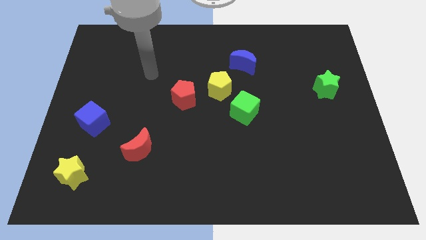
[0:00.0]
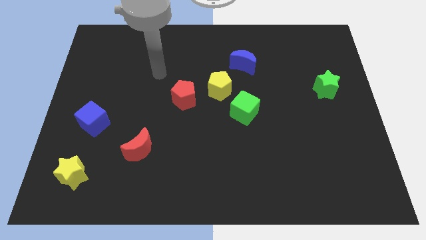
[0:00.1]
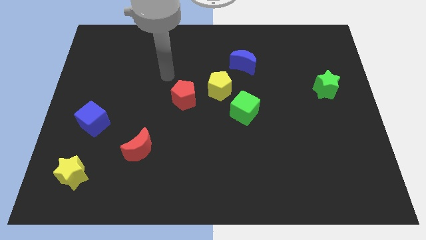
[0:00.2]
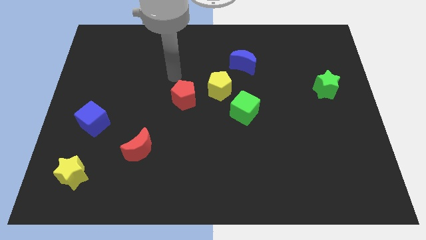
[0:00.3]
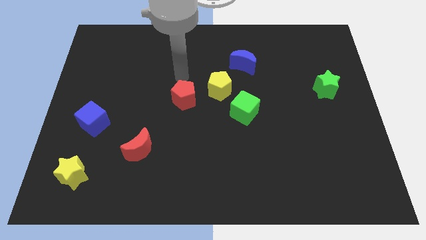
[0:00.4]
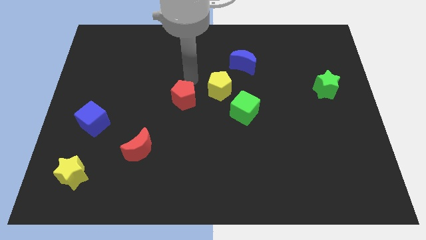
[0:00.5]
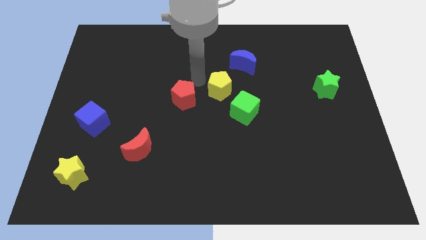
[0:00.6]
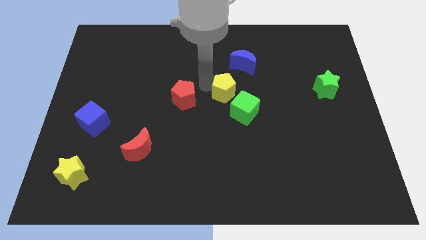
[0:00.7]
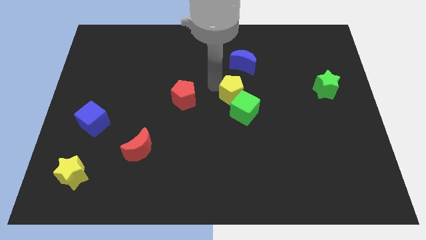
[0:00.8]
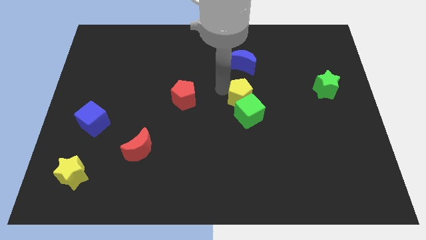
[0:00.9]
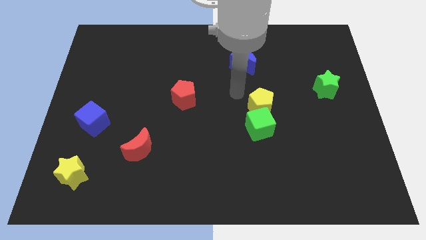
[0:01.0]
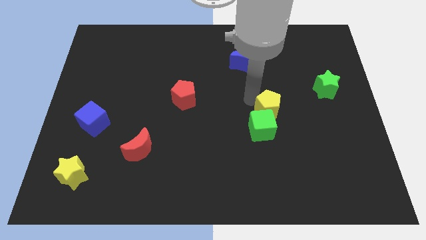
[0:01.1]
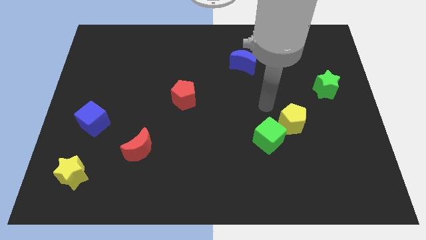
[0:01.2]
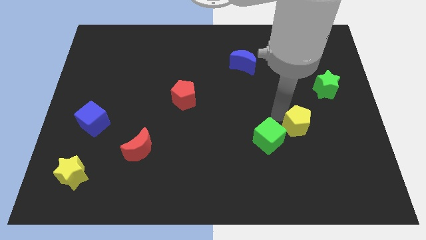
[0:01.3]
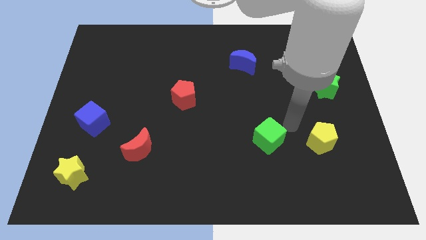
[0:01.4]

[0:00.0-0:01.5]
pull the green cube apart from the yellow pentagon

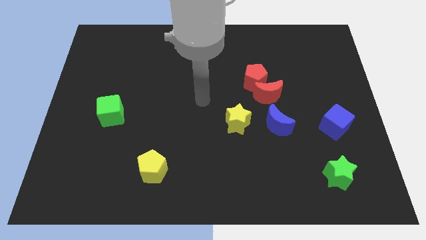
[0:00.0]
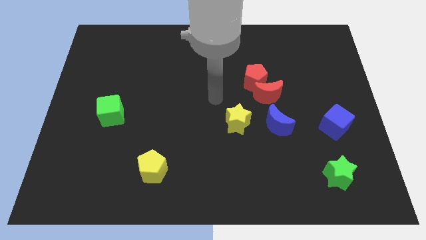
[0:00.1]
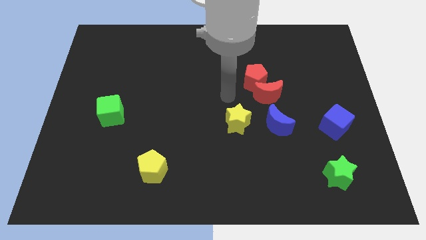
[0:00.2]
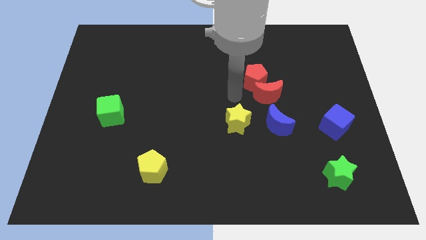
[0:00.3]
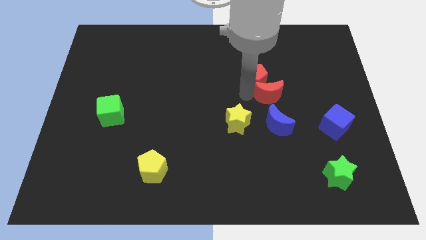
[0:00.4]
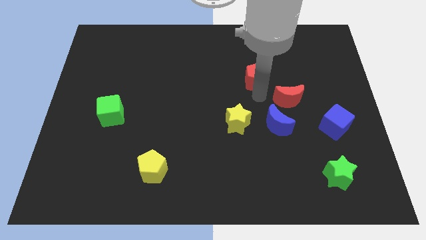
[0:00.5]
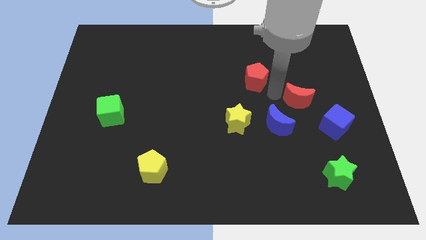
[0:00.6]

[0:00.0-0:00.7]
separate the red pentagon from the red moon

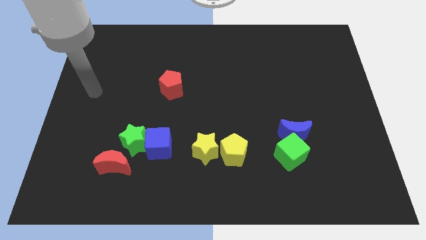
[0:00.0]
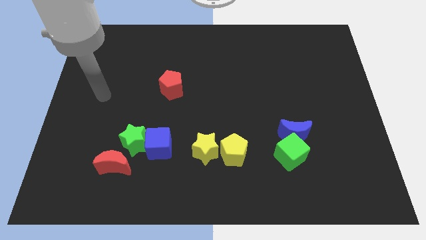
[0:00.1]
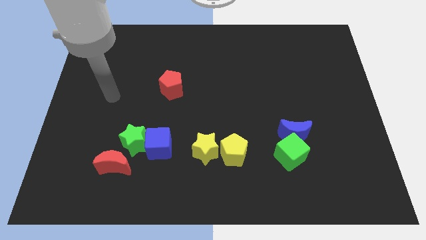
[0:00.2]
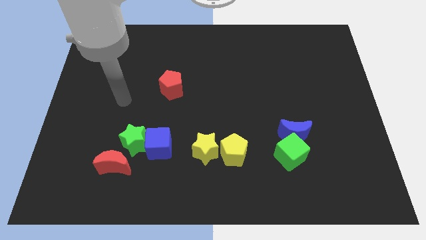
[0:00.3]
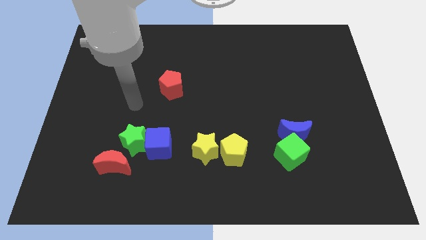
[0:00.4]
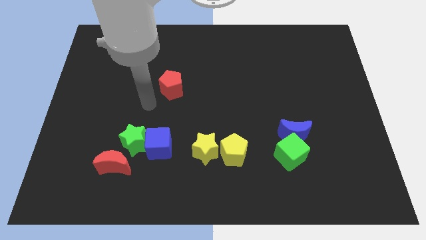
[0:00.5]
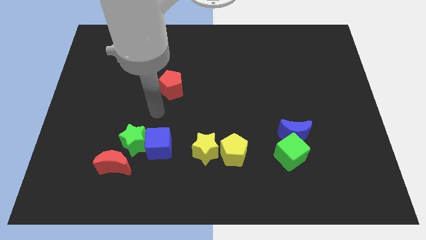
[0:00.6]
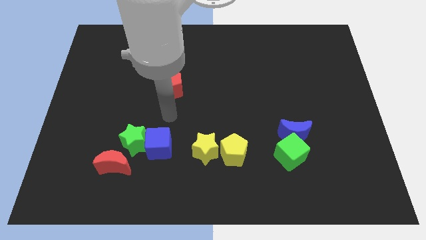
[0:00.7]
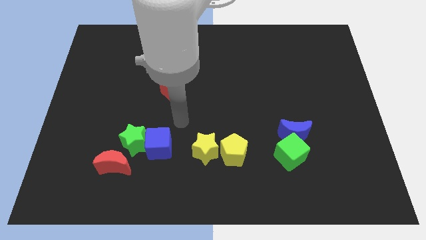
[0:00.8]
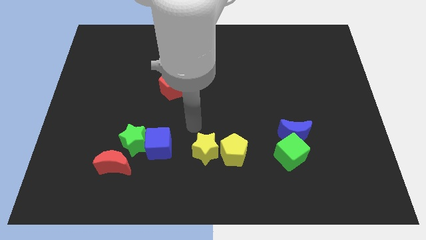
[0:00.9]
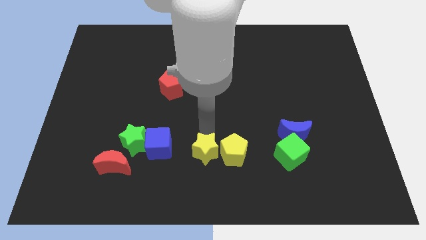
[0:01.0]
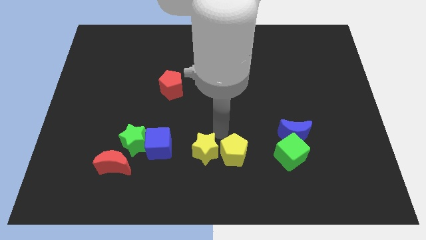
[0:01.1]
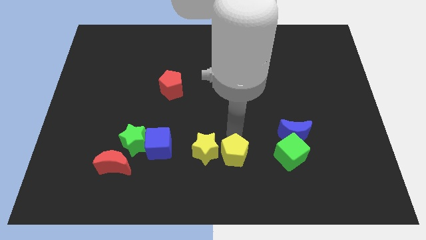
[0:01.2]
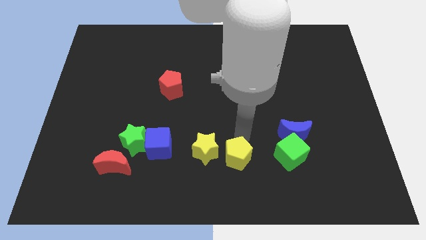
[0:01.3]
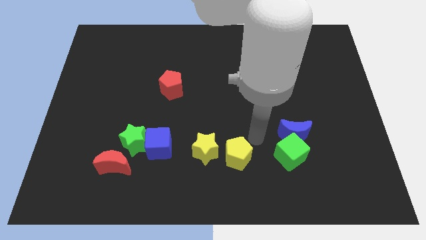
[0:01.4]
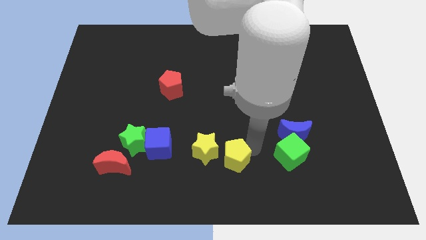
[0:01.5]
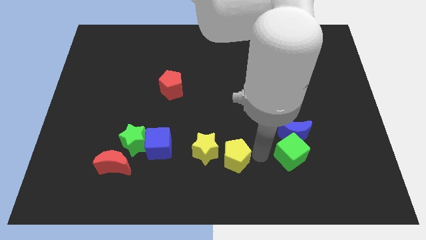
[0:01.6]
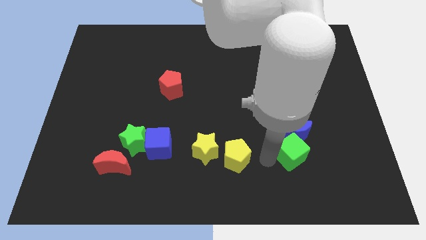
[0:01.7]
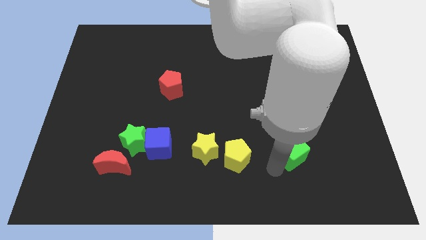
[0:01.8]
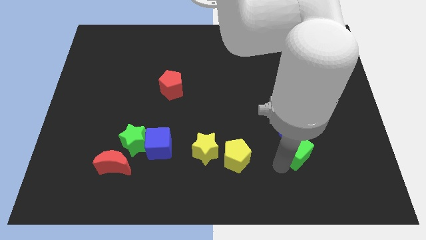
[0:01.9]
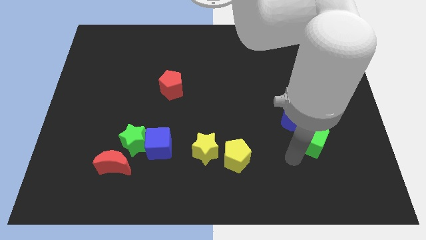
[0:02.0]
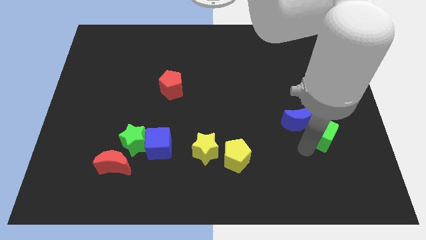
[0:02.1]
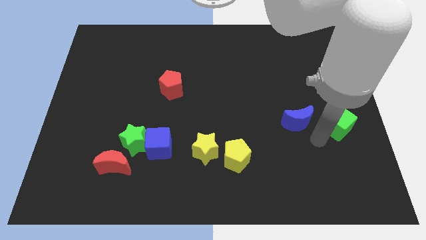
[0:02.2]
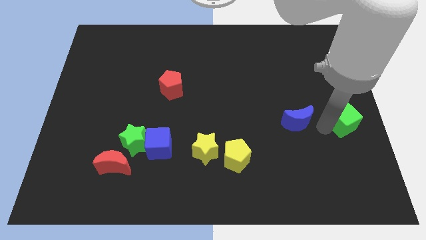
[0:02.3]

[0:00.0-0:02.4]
separate the blue moon from the green cube

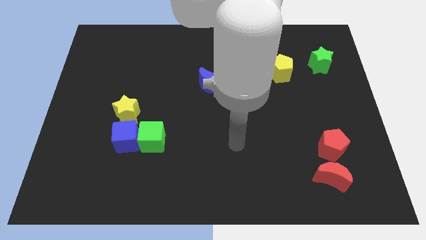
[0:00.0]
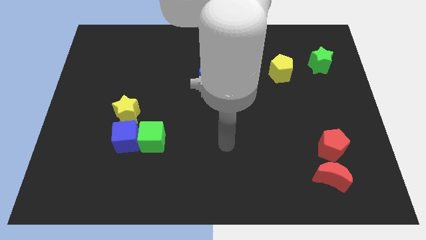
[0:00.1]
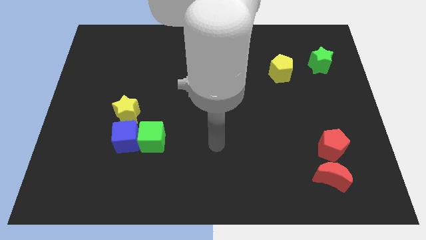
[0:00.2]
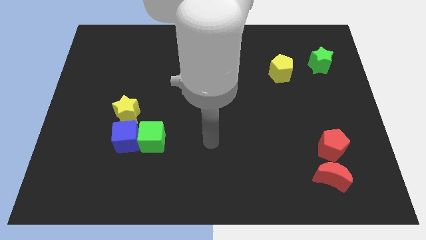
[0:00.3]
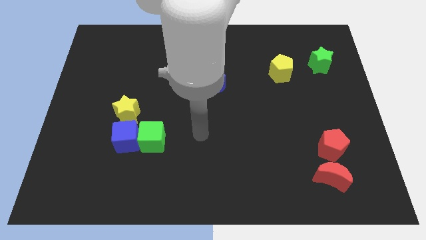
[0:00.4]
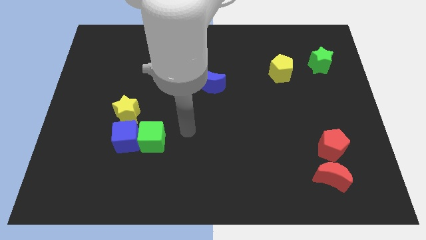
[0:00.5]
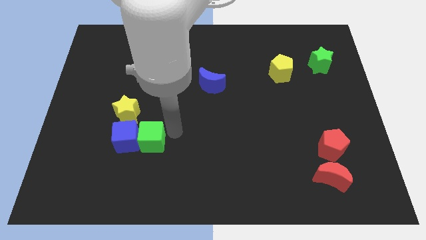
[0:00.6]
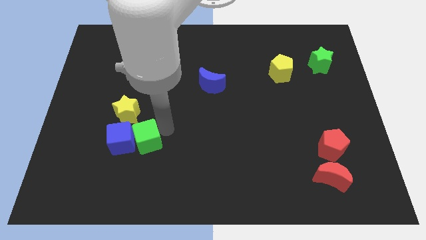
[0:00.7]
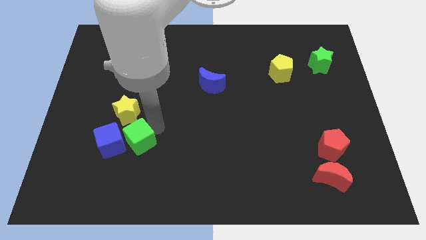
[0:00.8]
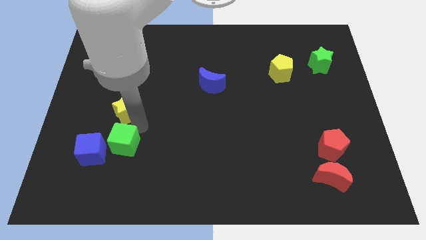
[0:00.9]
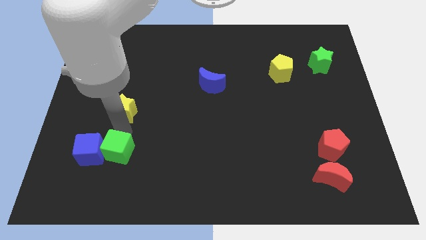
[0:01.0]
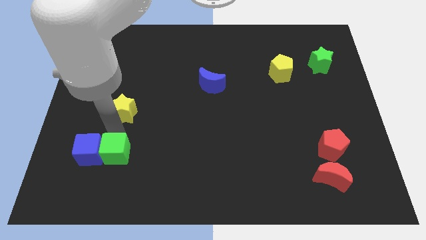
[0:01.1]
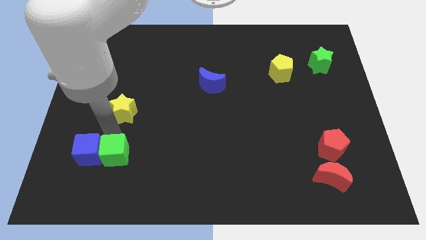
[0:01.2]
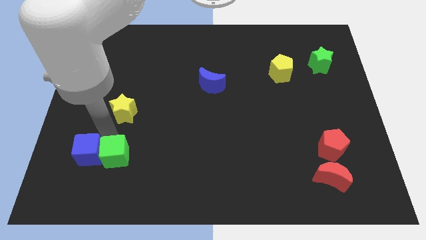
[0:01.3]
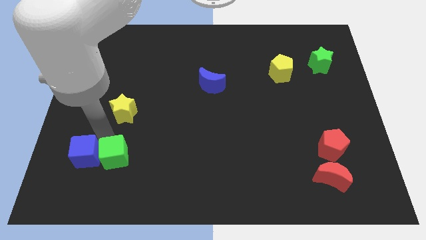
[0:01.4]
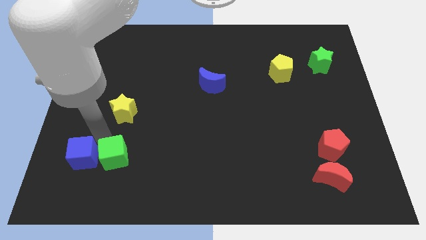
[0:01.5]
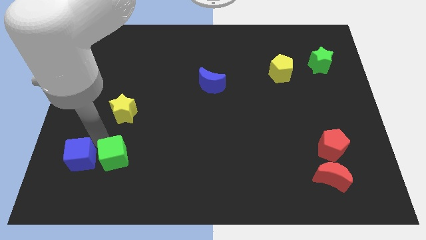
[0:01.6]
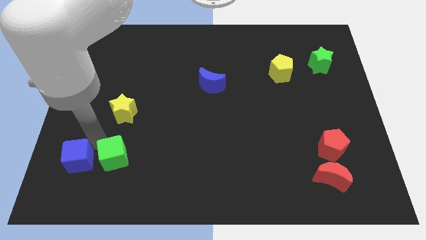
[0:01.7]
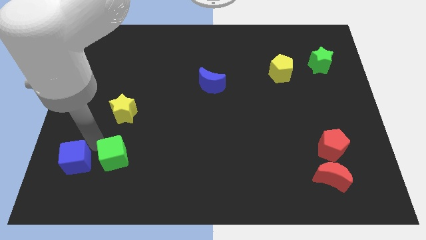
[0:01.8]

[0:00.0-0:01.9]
move the blue cube away from the green cube and yellow star

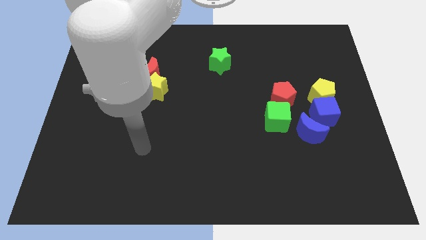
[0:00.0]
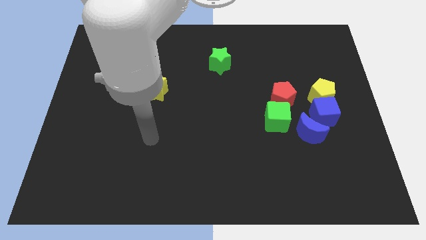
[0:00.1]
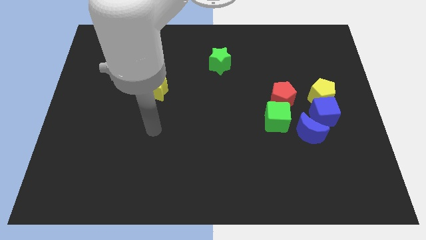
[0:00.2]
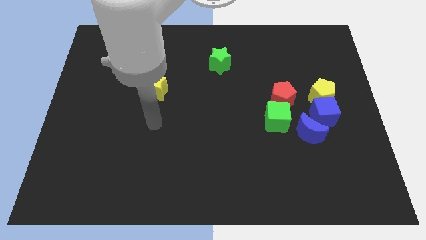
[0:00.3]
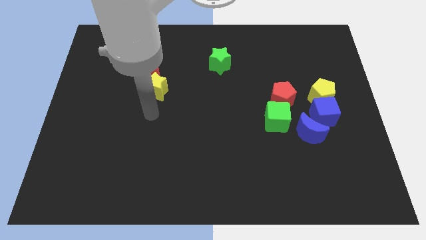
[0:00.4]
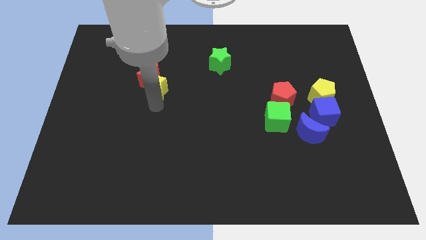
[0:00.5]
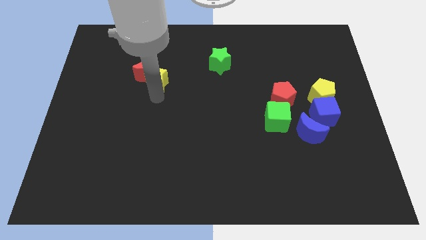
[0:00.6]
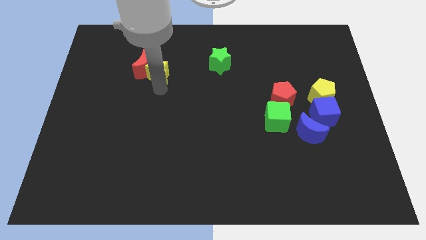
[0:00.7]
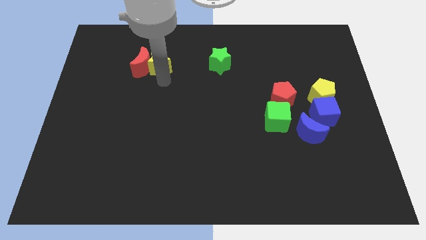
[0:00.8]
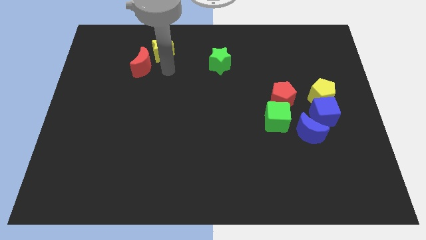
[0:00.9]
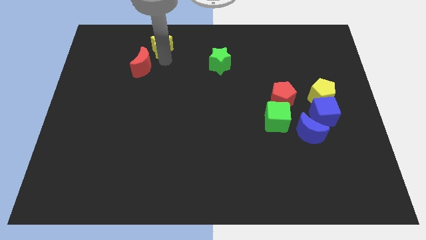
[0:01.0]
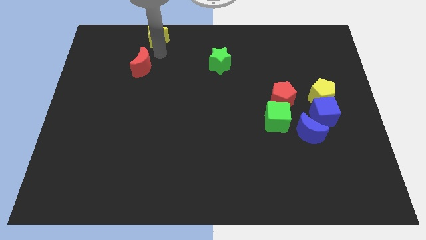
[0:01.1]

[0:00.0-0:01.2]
move the red moon away from the yellow star

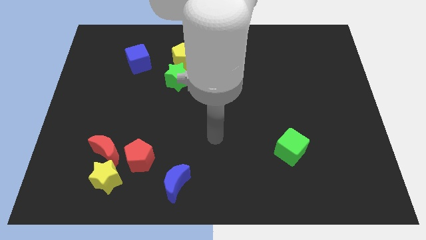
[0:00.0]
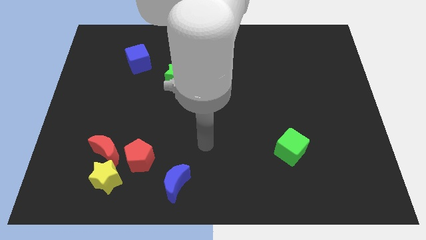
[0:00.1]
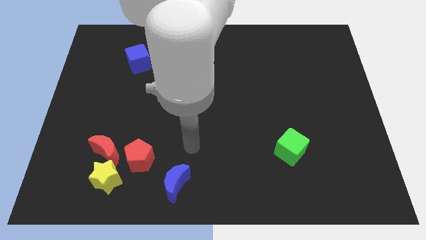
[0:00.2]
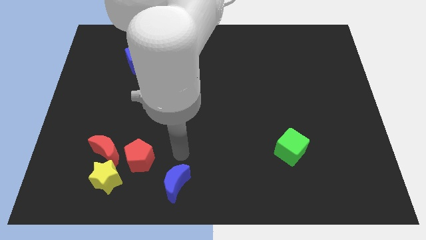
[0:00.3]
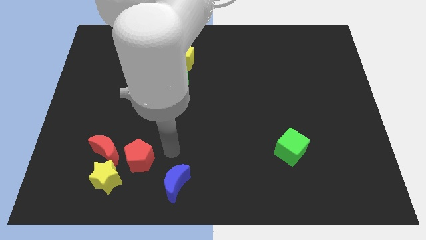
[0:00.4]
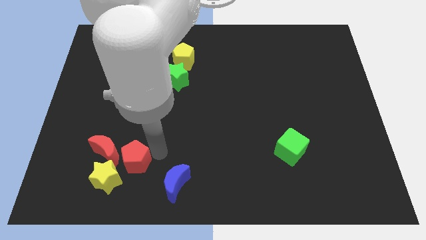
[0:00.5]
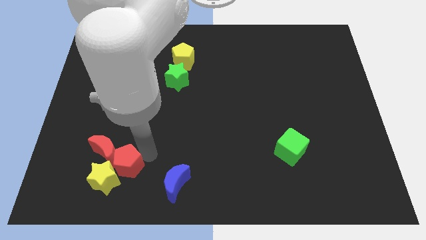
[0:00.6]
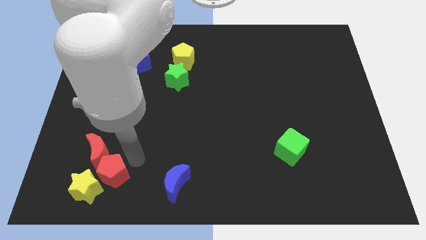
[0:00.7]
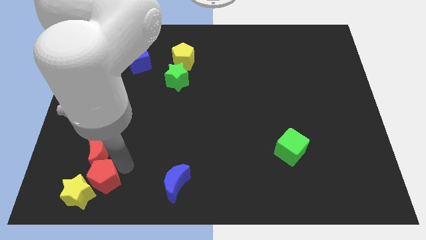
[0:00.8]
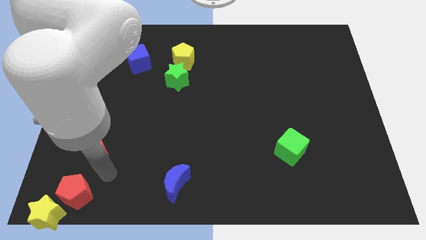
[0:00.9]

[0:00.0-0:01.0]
pull the red moon apart from the yellow star and red pentagon

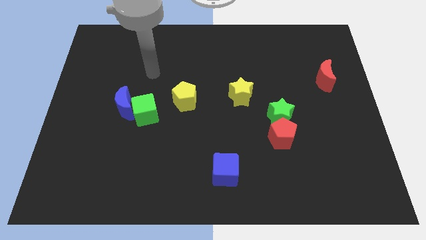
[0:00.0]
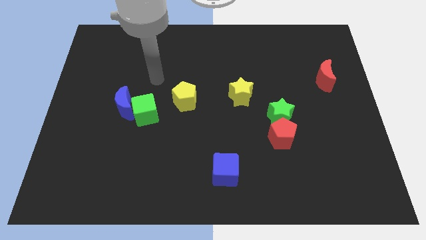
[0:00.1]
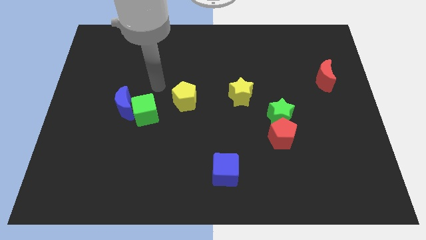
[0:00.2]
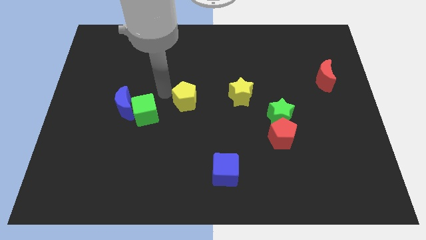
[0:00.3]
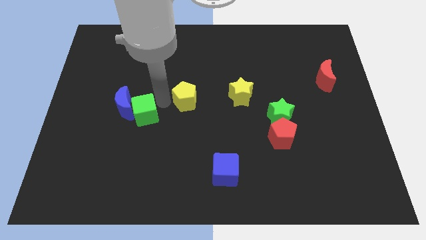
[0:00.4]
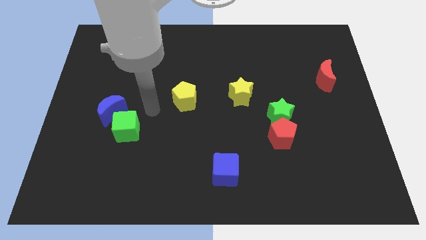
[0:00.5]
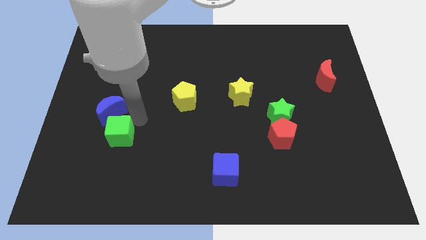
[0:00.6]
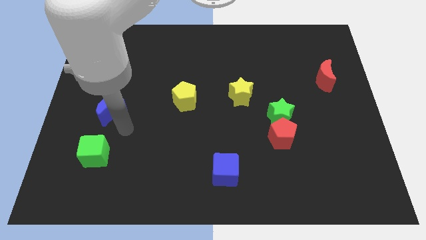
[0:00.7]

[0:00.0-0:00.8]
pull the blue moon apart from the green cube
